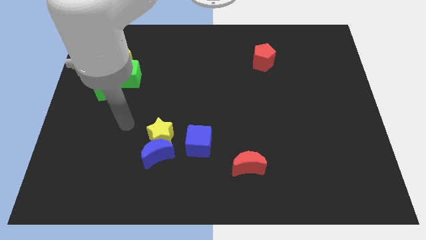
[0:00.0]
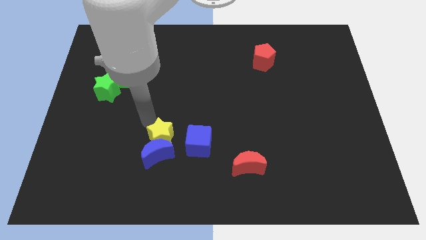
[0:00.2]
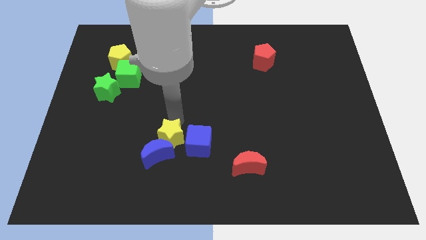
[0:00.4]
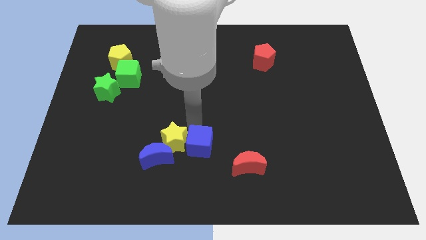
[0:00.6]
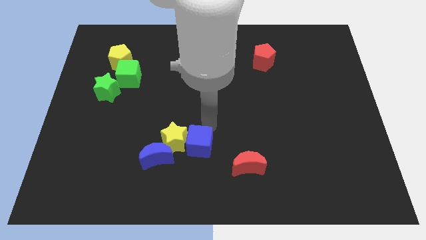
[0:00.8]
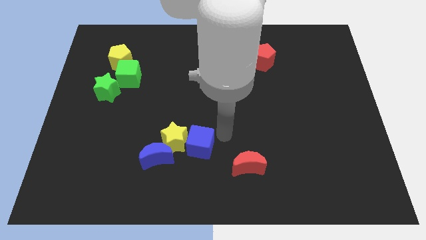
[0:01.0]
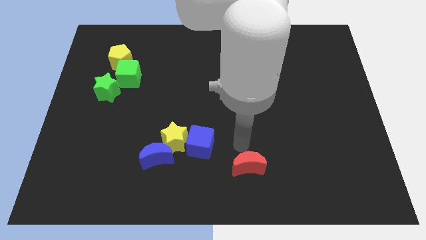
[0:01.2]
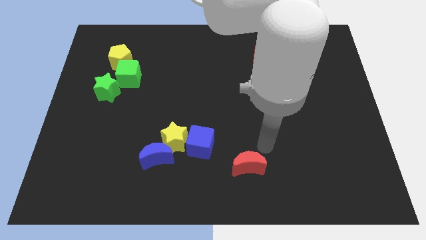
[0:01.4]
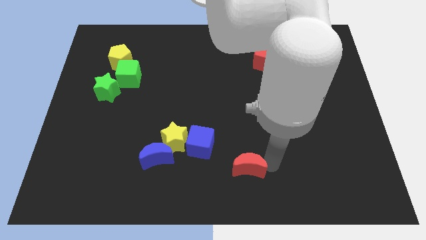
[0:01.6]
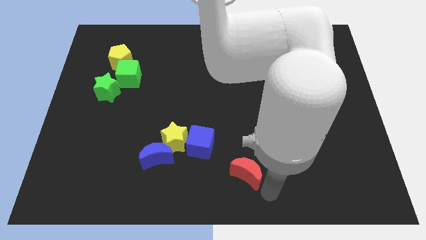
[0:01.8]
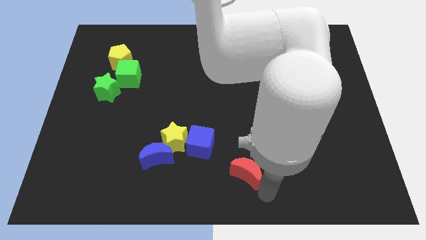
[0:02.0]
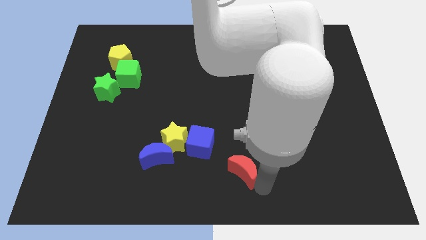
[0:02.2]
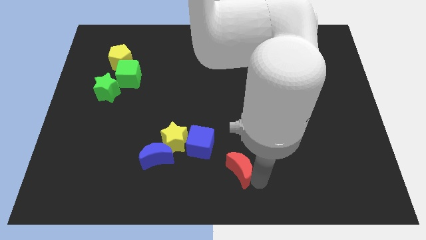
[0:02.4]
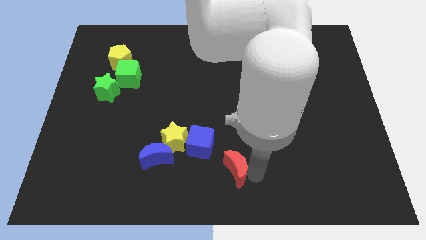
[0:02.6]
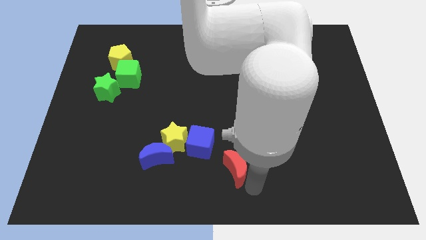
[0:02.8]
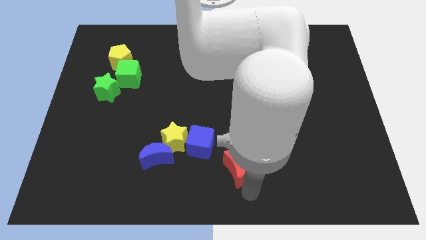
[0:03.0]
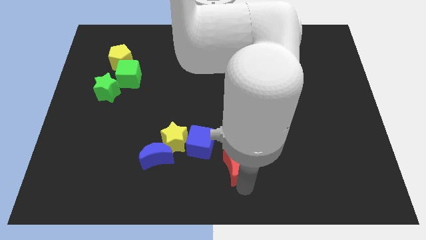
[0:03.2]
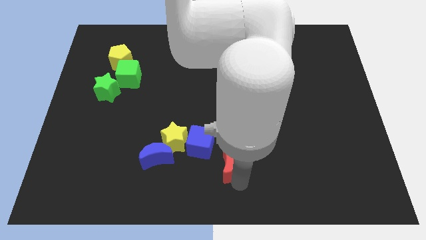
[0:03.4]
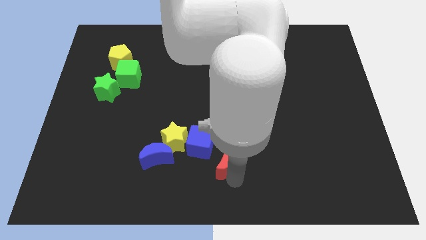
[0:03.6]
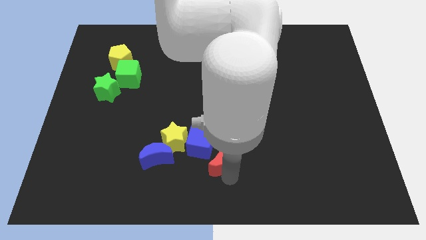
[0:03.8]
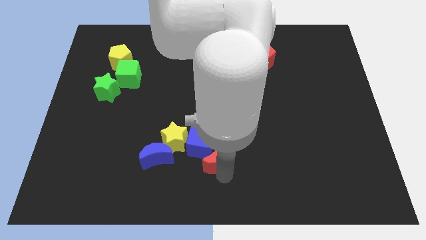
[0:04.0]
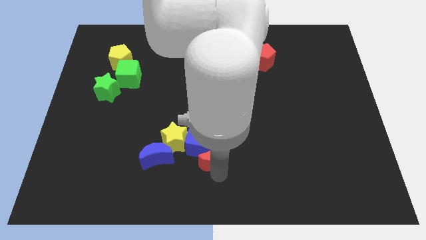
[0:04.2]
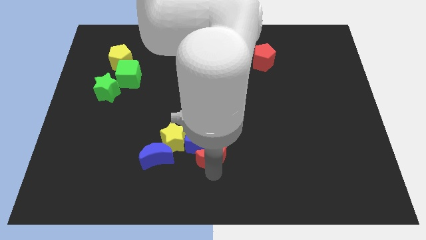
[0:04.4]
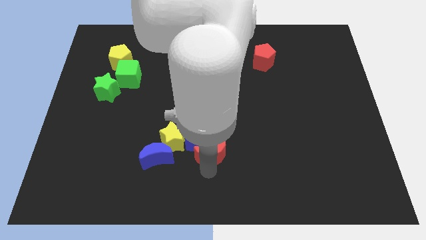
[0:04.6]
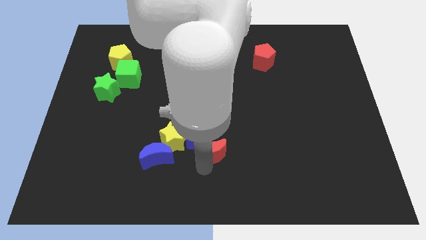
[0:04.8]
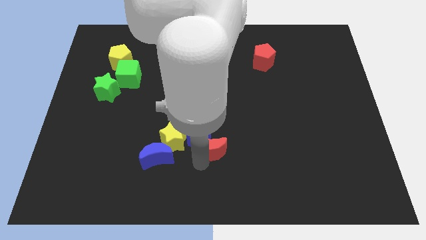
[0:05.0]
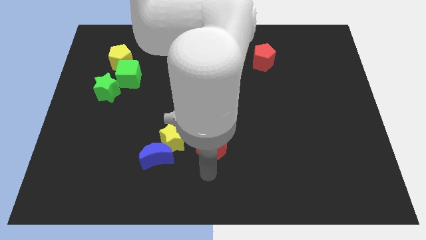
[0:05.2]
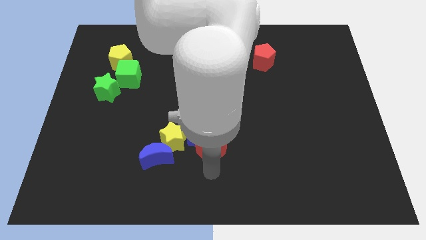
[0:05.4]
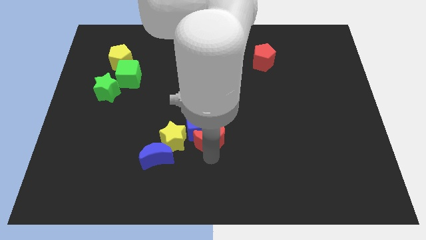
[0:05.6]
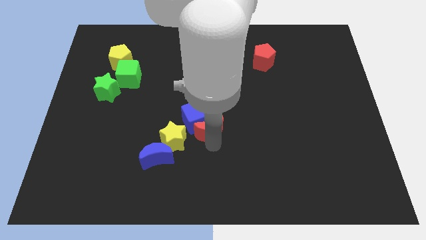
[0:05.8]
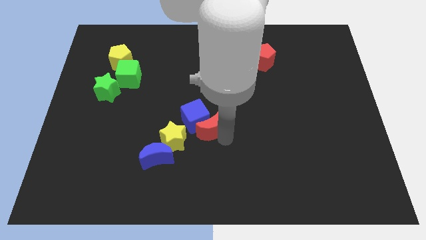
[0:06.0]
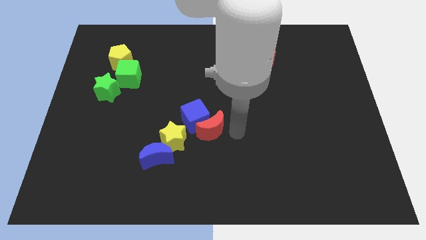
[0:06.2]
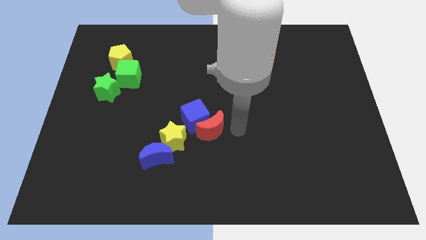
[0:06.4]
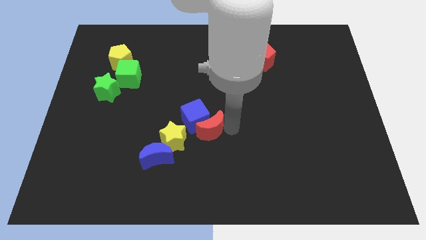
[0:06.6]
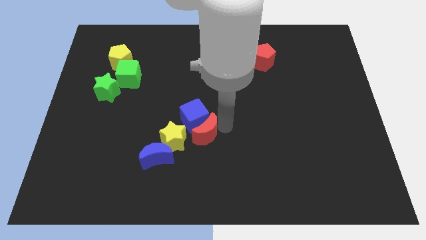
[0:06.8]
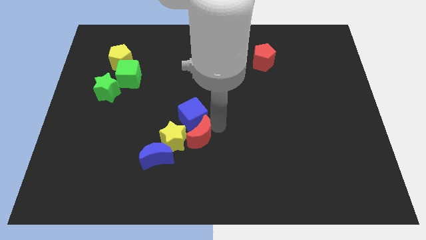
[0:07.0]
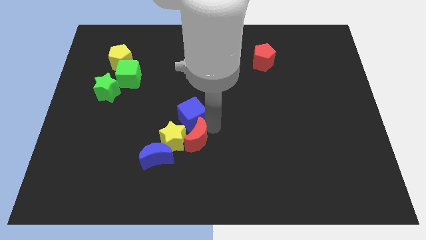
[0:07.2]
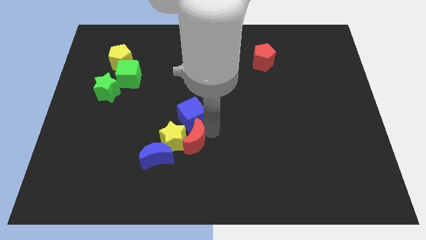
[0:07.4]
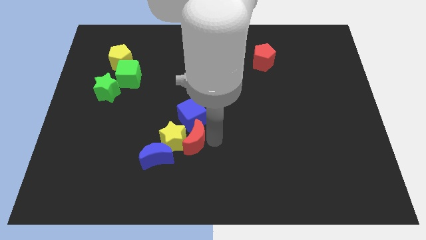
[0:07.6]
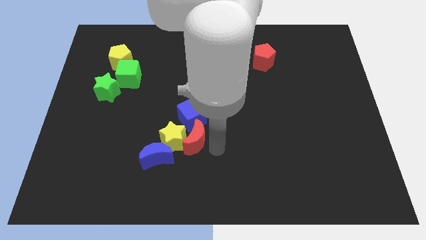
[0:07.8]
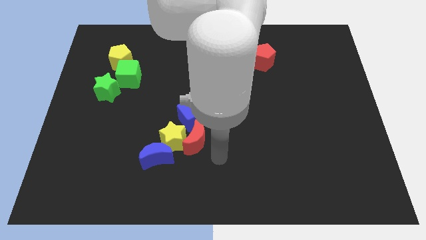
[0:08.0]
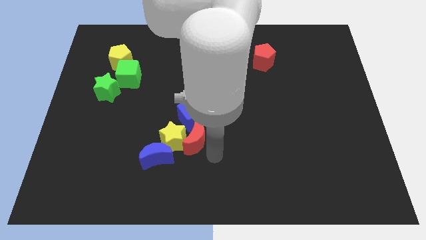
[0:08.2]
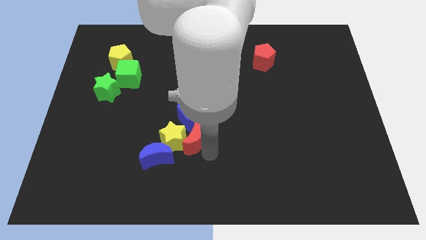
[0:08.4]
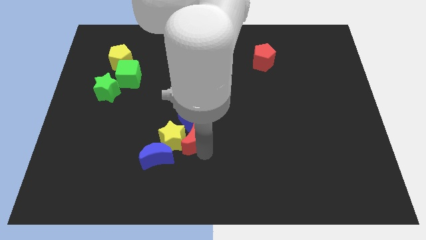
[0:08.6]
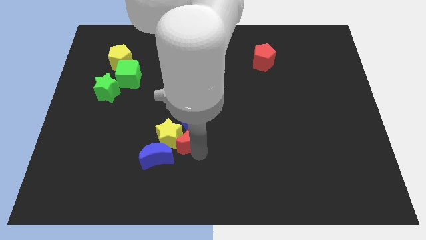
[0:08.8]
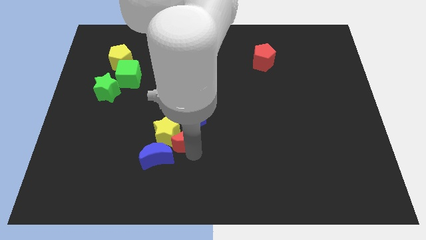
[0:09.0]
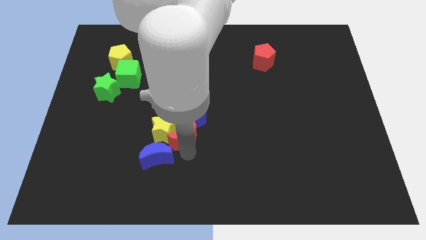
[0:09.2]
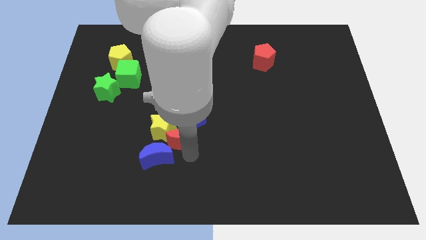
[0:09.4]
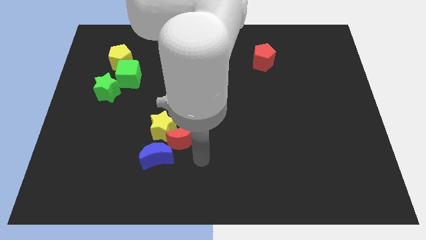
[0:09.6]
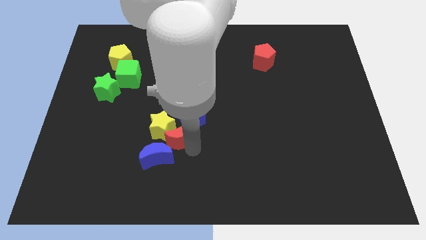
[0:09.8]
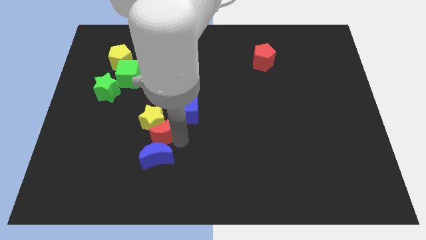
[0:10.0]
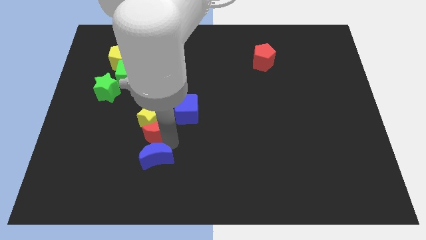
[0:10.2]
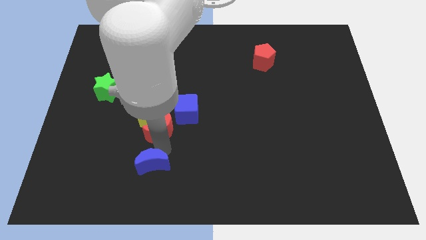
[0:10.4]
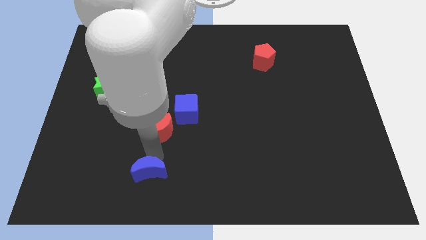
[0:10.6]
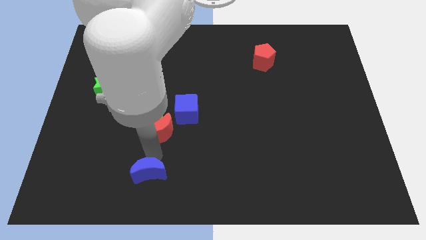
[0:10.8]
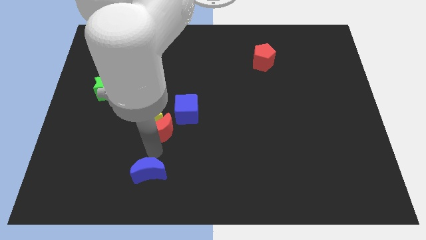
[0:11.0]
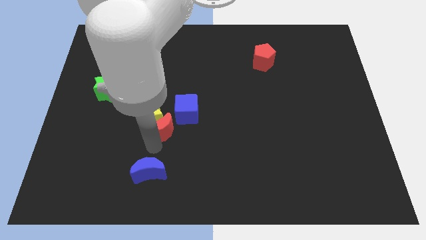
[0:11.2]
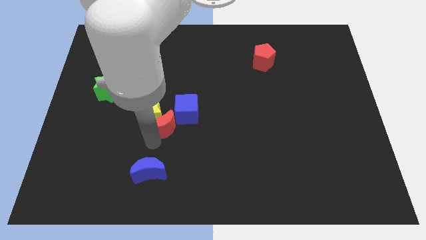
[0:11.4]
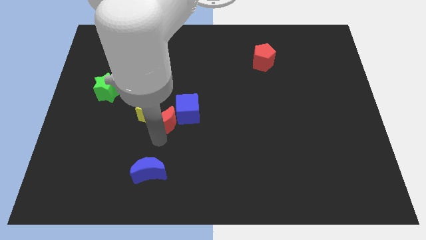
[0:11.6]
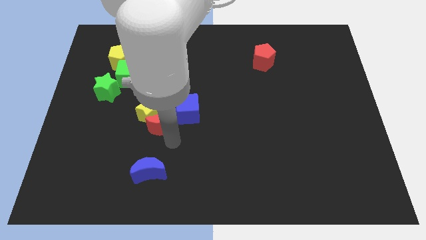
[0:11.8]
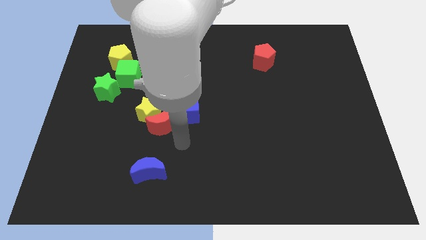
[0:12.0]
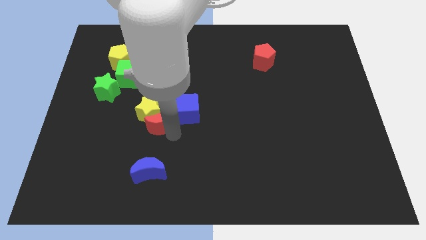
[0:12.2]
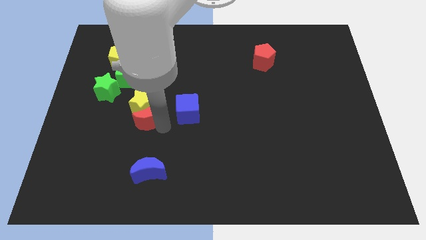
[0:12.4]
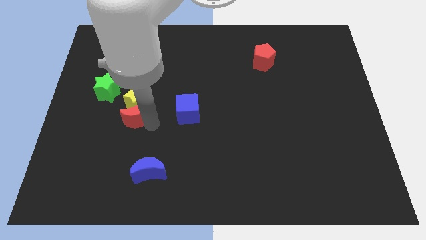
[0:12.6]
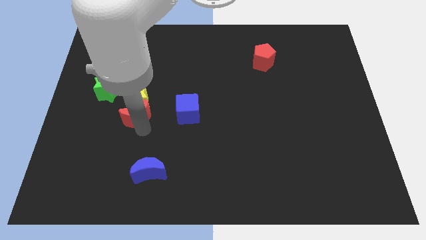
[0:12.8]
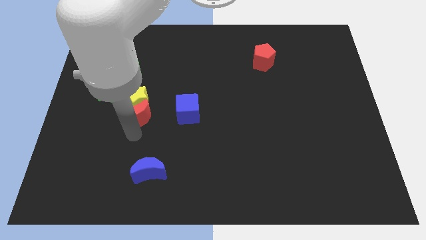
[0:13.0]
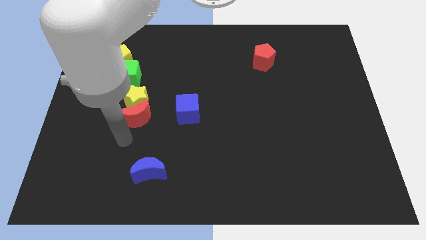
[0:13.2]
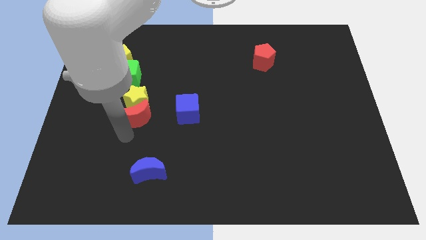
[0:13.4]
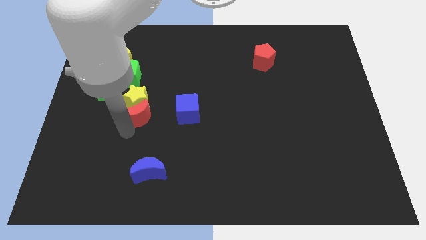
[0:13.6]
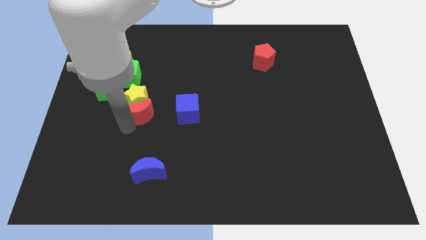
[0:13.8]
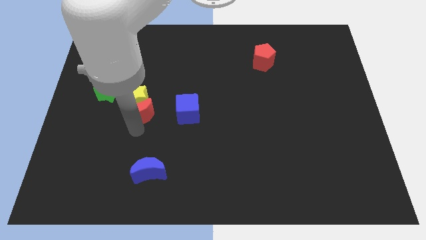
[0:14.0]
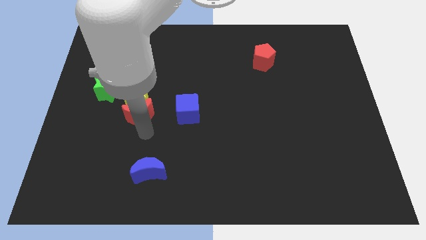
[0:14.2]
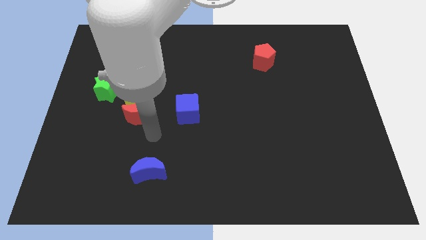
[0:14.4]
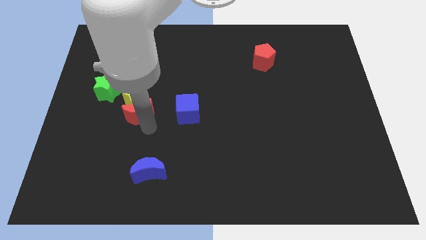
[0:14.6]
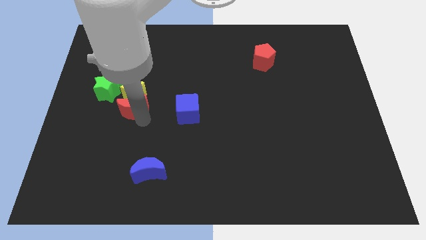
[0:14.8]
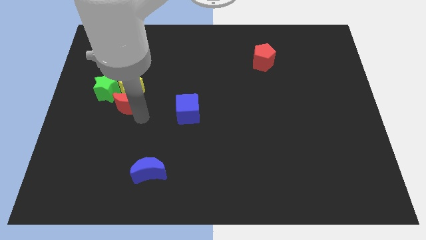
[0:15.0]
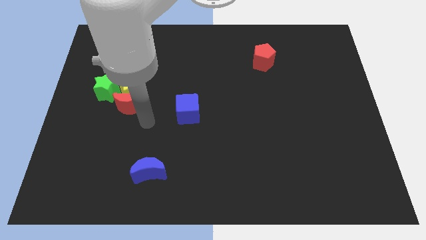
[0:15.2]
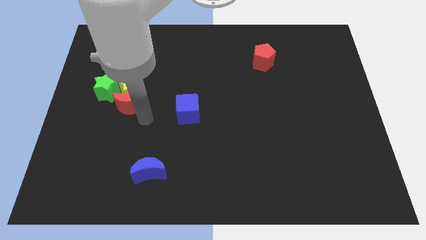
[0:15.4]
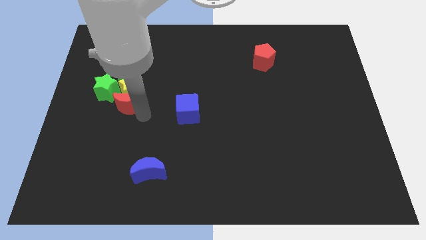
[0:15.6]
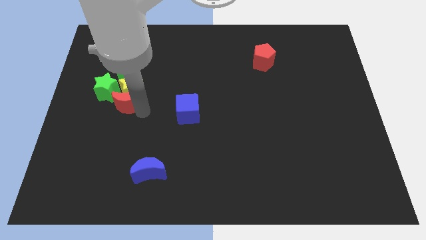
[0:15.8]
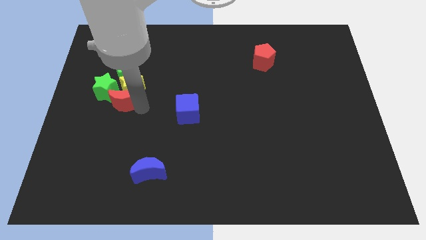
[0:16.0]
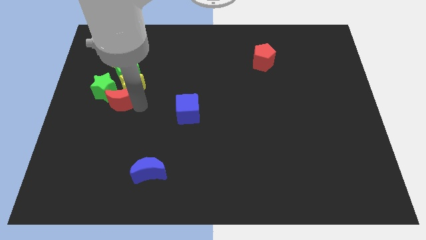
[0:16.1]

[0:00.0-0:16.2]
put the red moon to the green star
